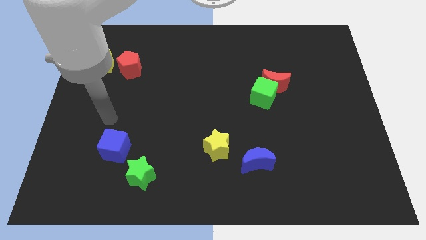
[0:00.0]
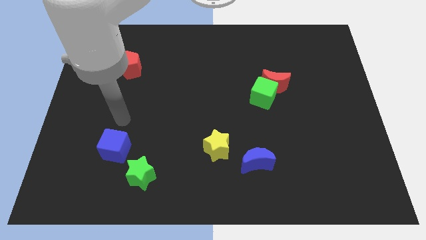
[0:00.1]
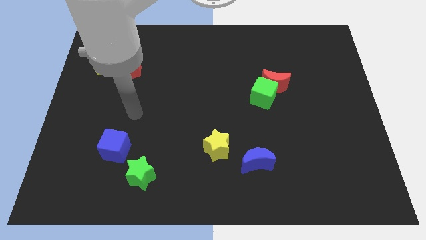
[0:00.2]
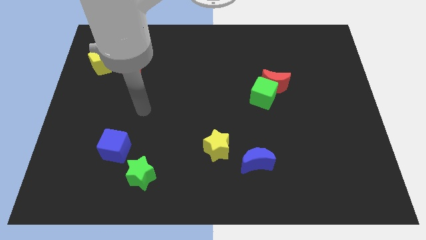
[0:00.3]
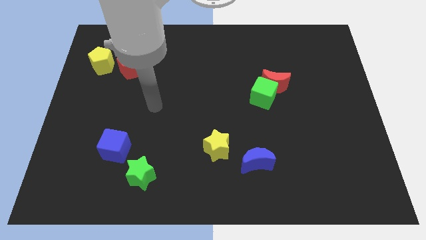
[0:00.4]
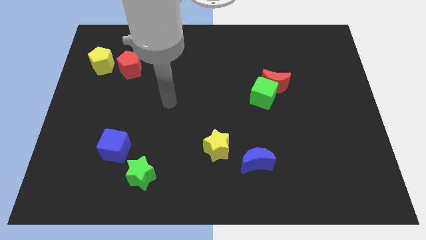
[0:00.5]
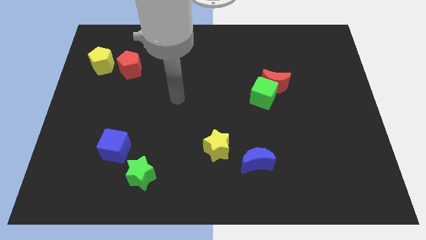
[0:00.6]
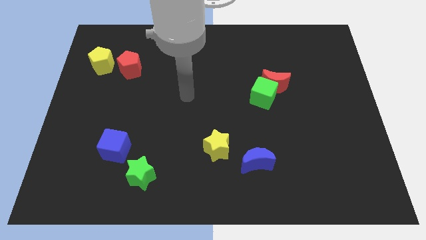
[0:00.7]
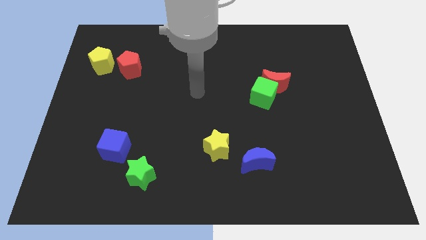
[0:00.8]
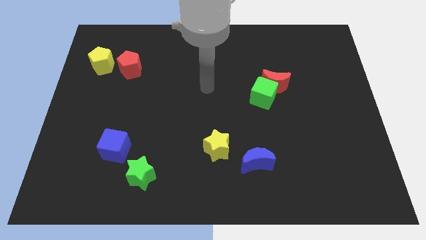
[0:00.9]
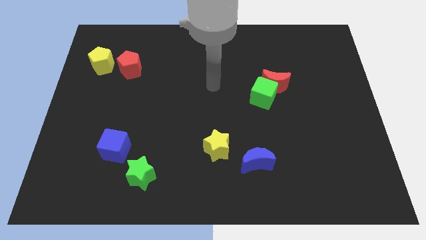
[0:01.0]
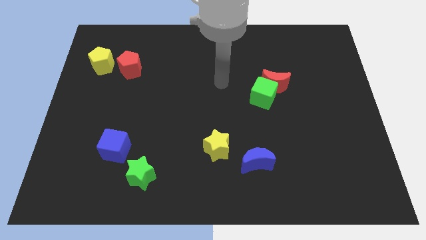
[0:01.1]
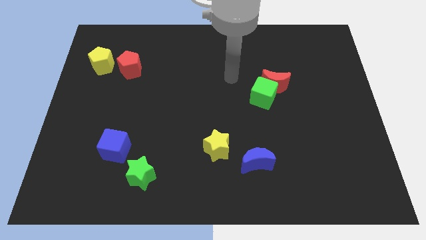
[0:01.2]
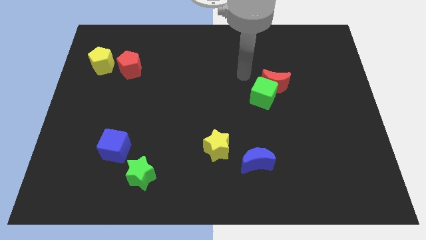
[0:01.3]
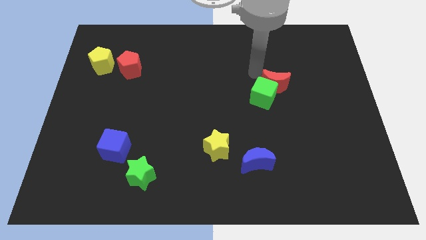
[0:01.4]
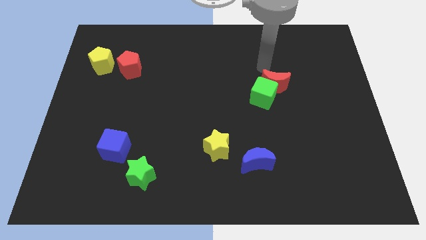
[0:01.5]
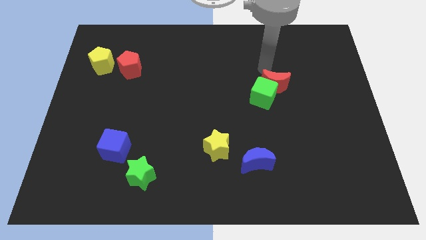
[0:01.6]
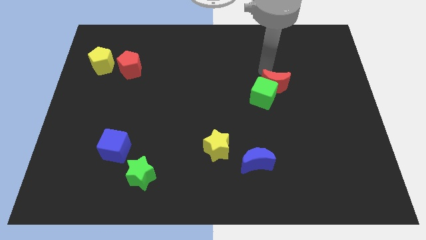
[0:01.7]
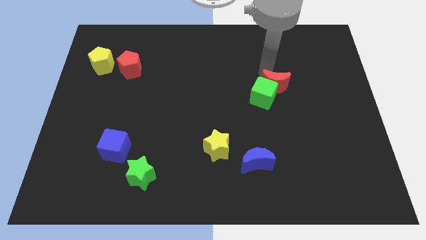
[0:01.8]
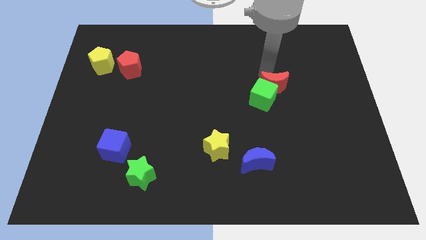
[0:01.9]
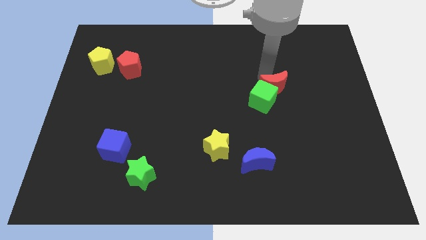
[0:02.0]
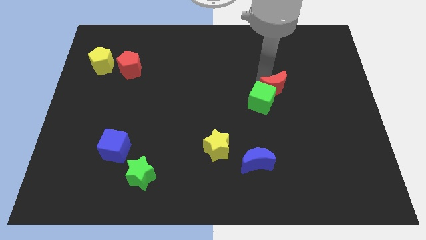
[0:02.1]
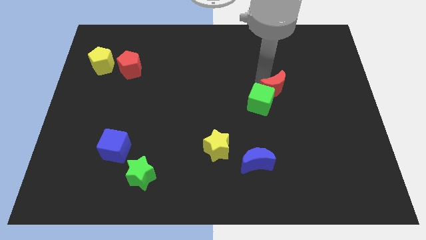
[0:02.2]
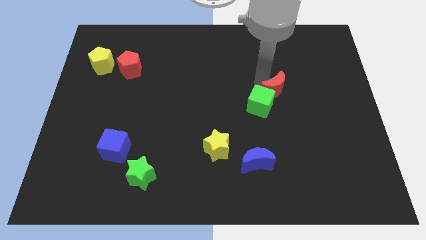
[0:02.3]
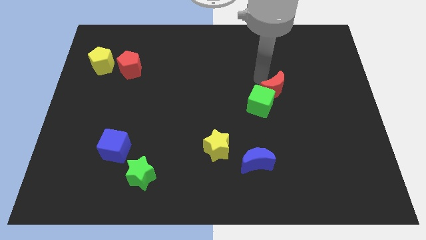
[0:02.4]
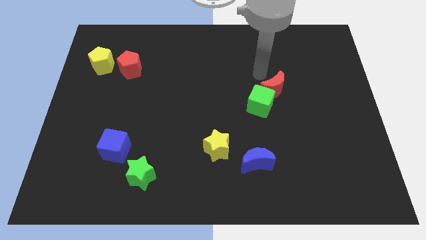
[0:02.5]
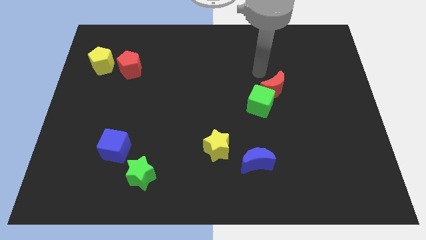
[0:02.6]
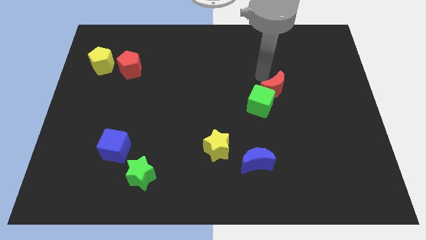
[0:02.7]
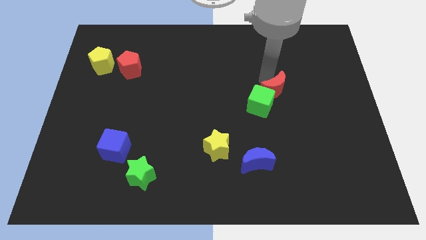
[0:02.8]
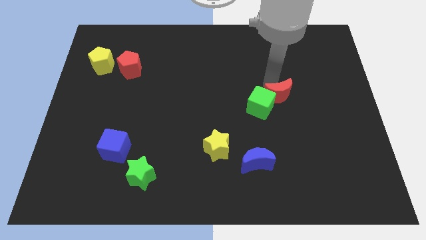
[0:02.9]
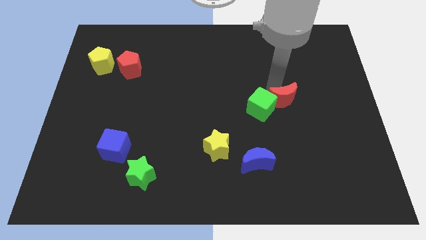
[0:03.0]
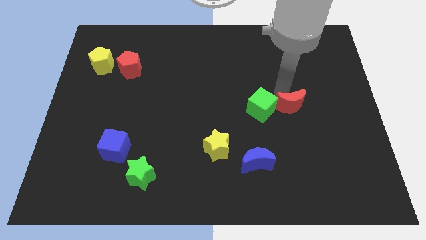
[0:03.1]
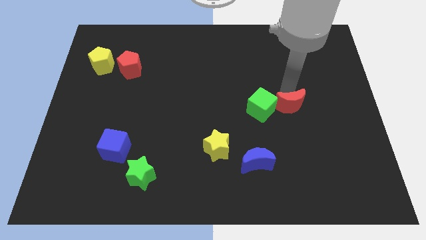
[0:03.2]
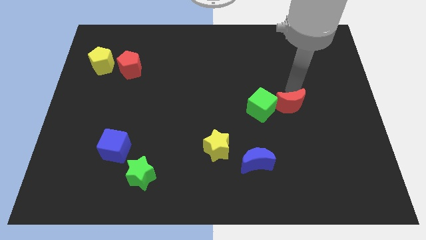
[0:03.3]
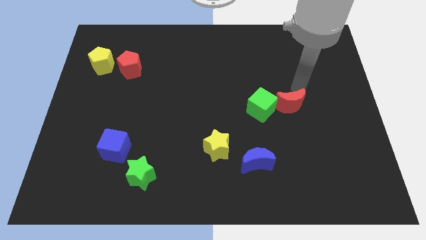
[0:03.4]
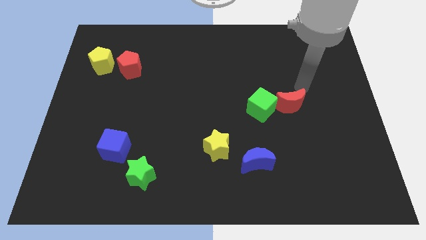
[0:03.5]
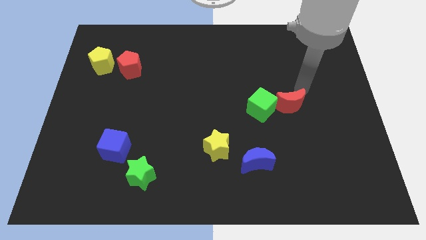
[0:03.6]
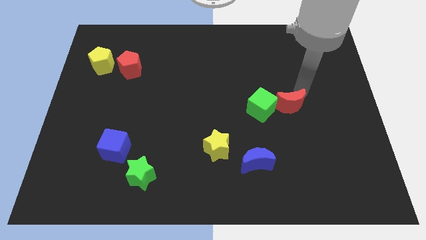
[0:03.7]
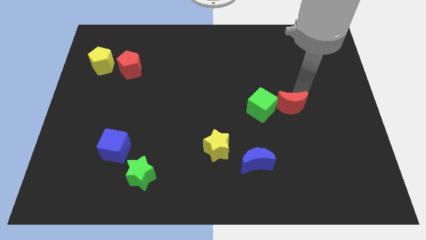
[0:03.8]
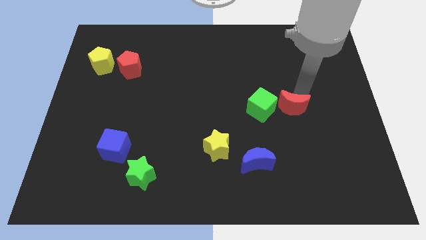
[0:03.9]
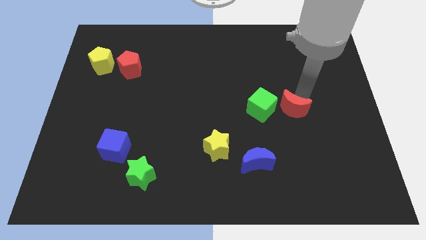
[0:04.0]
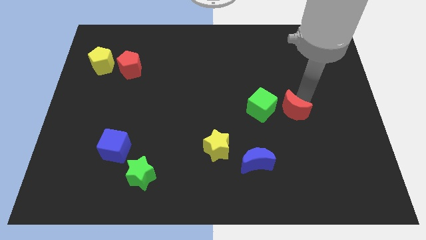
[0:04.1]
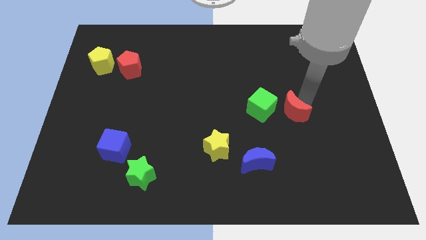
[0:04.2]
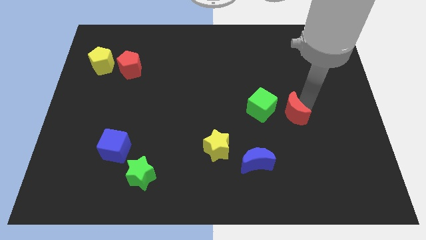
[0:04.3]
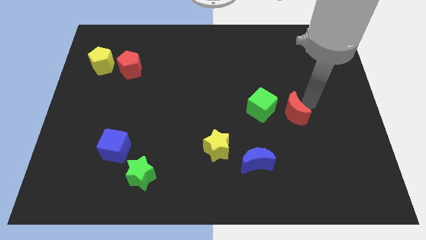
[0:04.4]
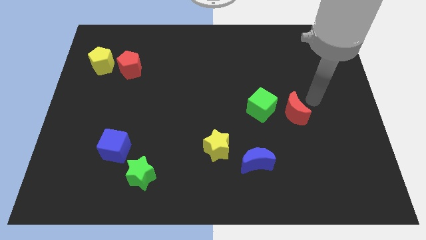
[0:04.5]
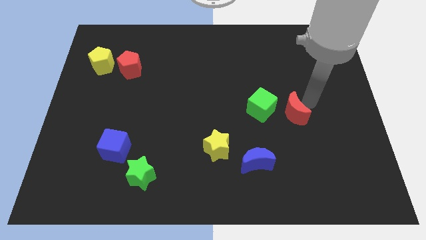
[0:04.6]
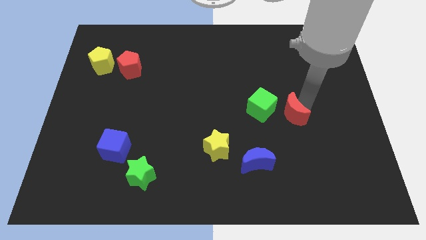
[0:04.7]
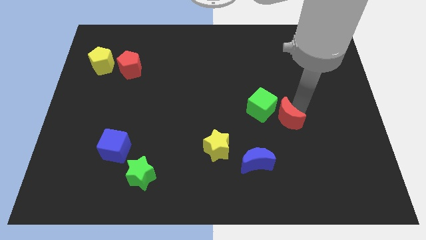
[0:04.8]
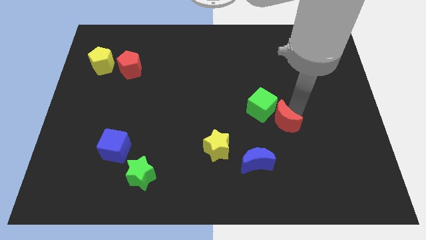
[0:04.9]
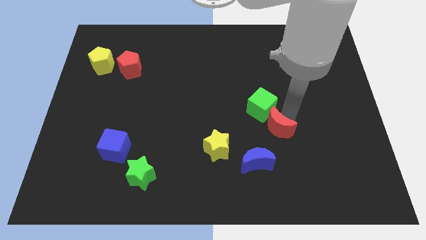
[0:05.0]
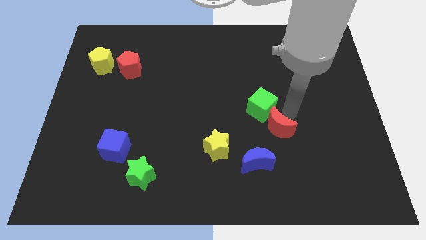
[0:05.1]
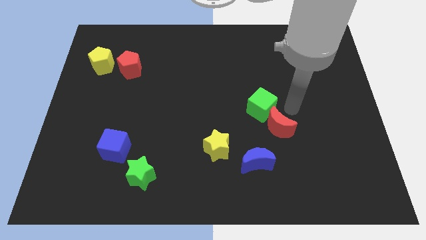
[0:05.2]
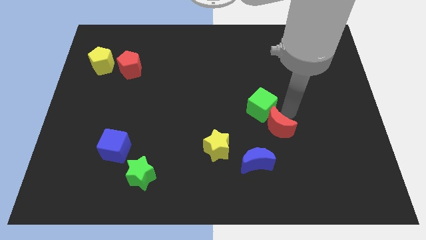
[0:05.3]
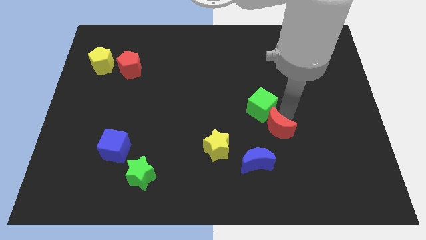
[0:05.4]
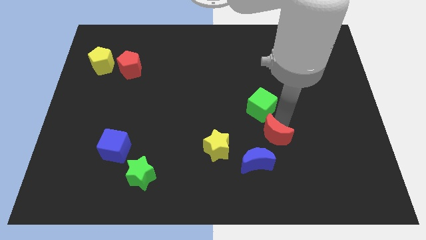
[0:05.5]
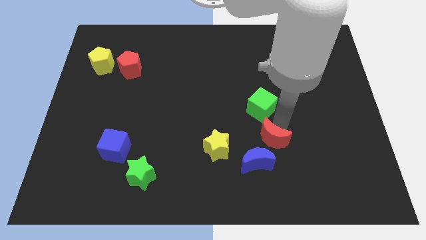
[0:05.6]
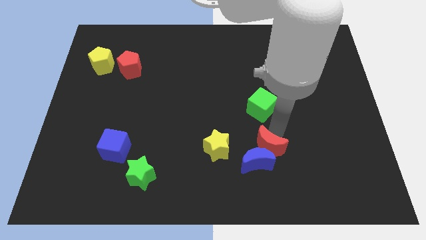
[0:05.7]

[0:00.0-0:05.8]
put the red moon towards the blue moon

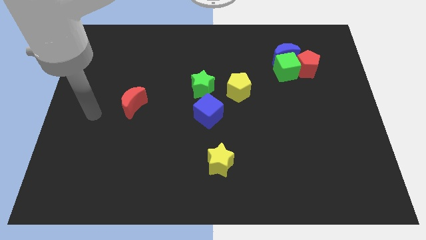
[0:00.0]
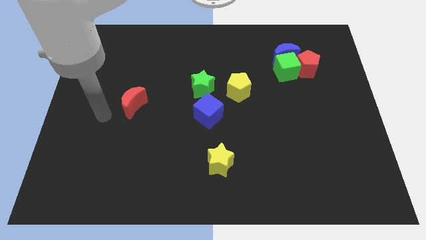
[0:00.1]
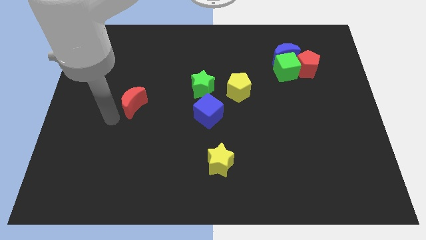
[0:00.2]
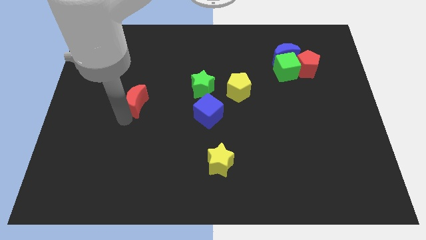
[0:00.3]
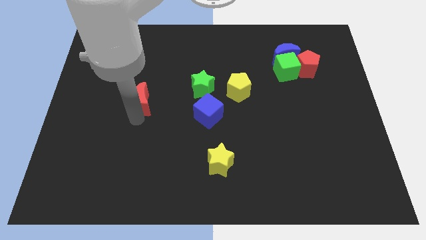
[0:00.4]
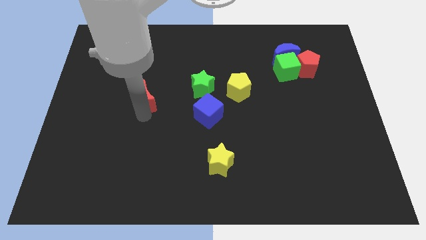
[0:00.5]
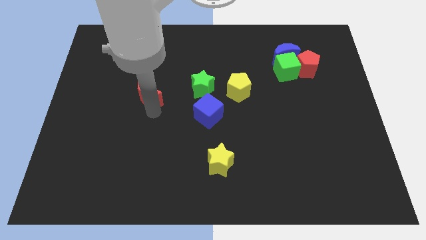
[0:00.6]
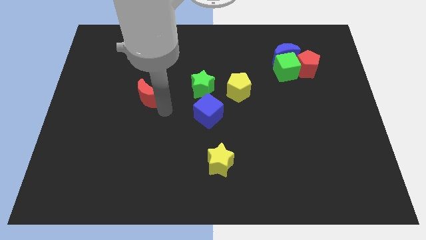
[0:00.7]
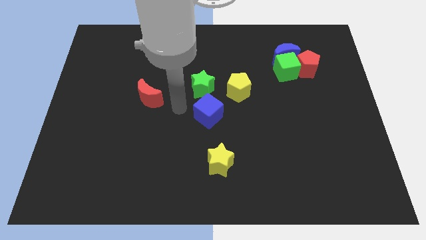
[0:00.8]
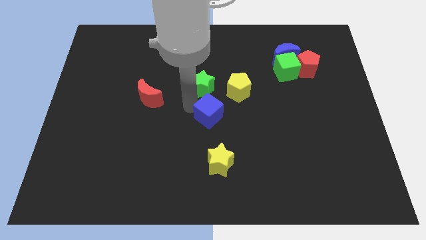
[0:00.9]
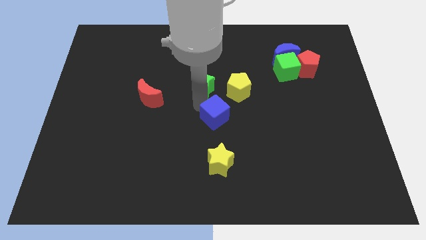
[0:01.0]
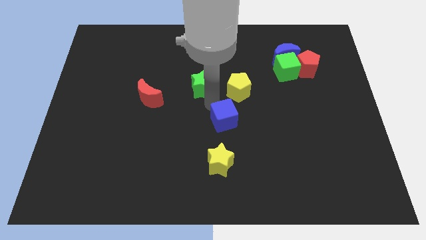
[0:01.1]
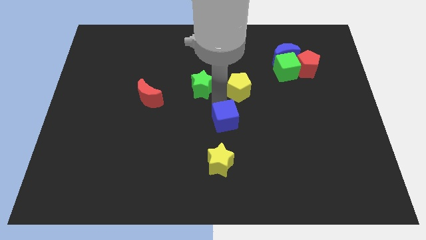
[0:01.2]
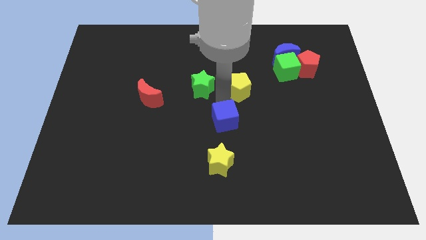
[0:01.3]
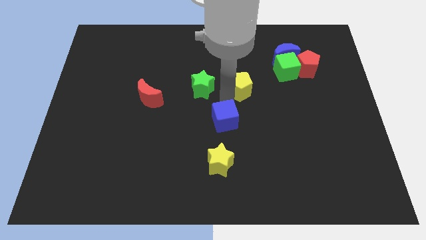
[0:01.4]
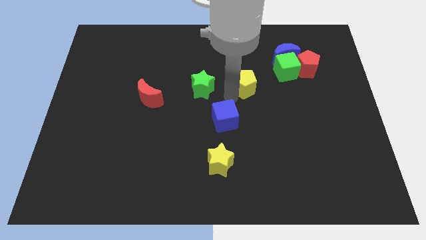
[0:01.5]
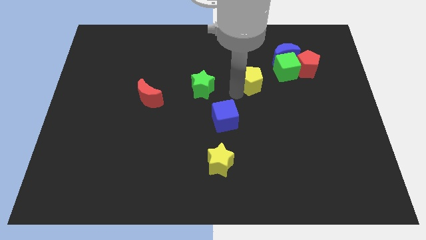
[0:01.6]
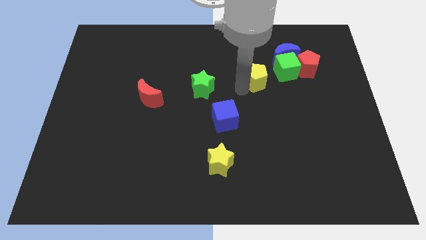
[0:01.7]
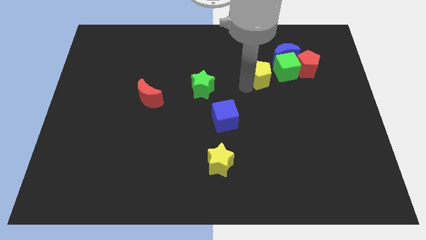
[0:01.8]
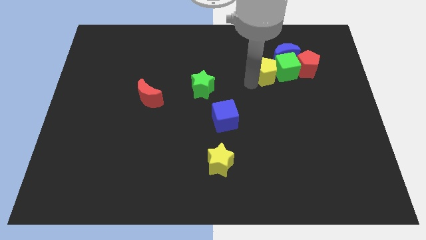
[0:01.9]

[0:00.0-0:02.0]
put the yellow pentagon close to the green cube
